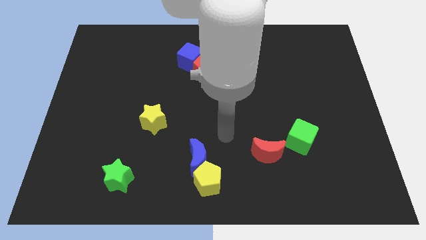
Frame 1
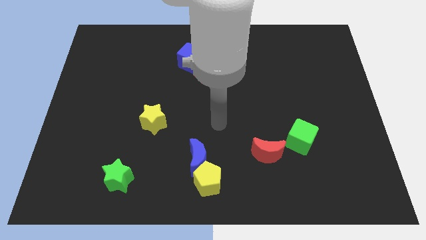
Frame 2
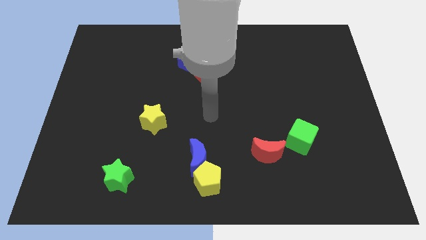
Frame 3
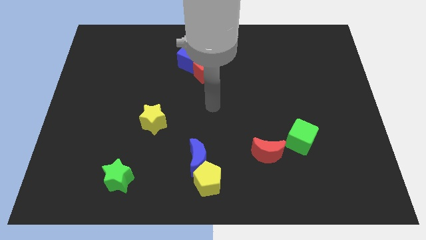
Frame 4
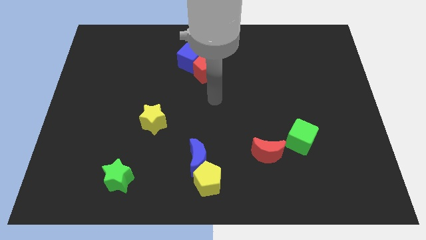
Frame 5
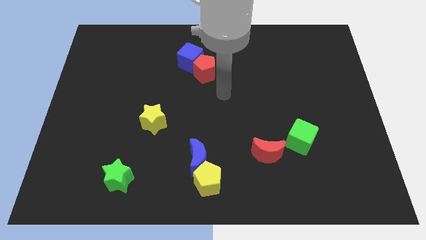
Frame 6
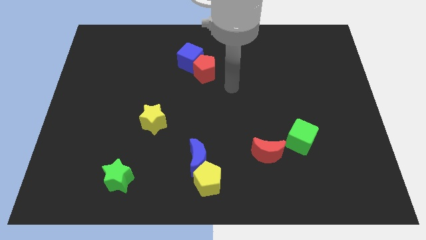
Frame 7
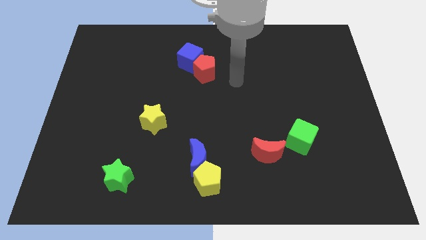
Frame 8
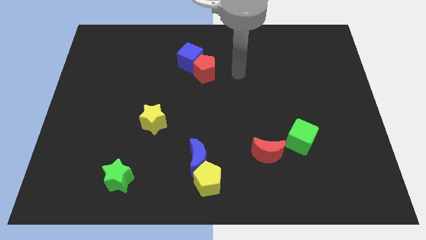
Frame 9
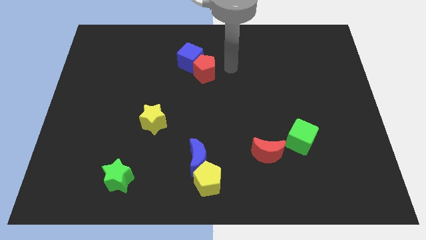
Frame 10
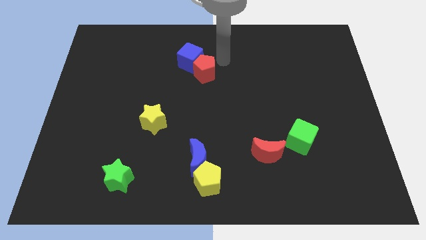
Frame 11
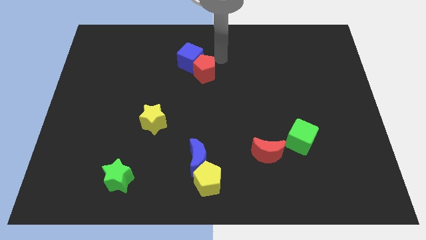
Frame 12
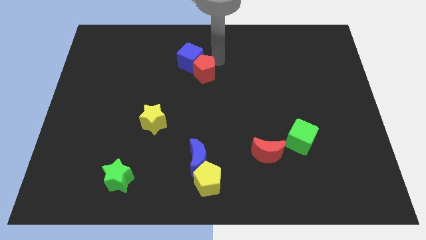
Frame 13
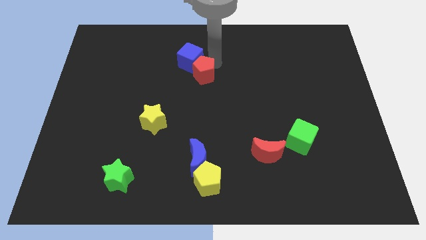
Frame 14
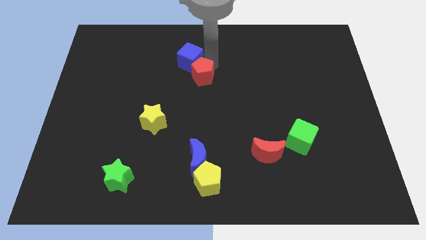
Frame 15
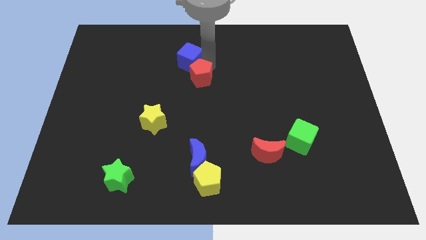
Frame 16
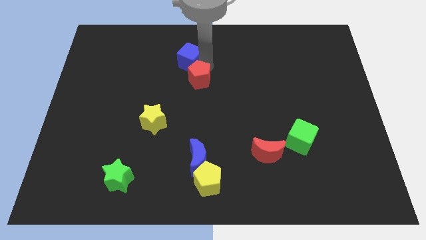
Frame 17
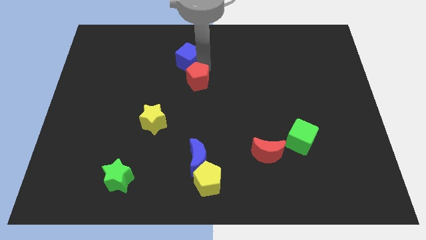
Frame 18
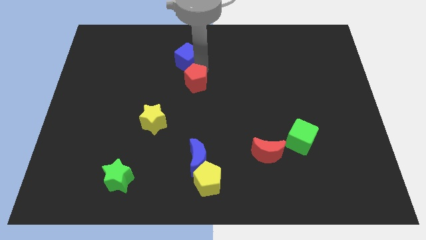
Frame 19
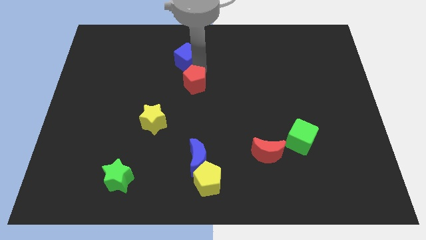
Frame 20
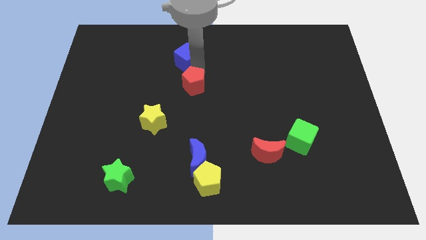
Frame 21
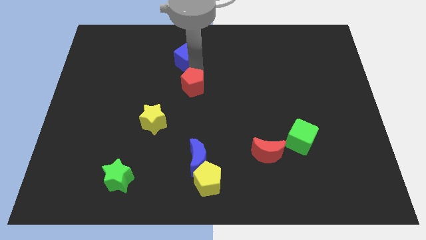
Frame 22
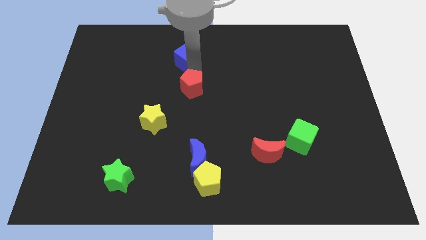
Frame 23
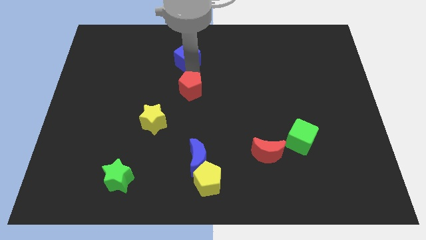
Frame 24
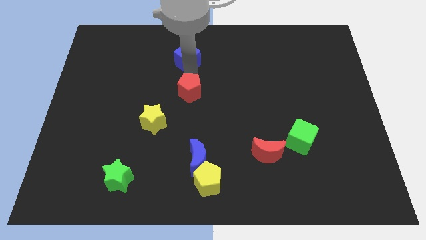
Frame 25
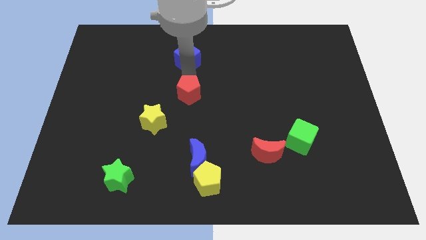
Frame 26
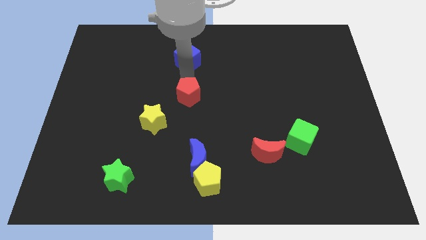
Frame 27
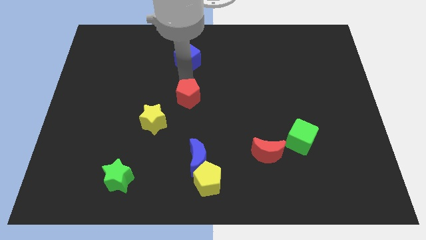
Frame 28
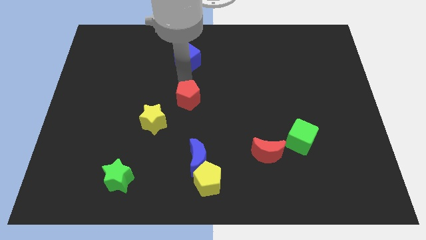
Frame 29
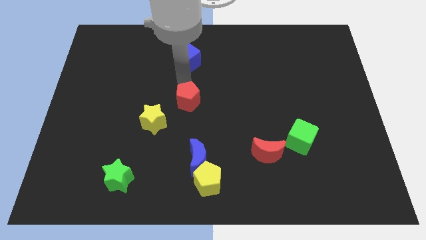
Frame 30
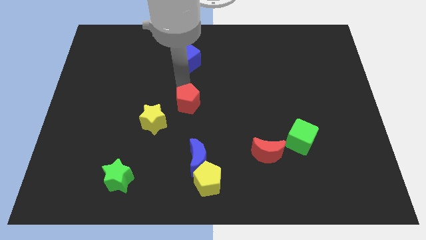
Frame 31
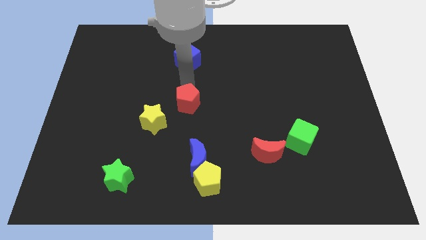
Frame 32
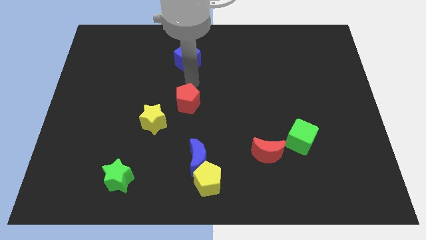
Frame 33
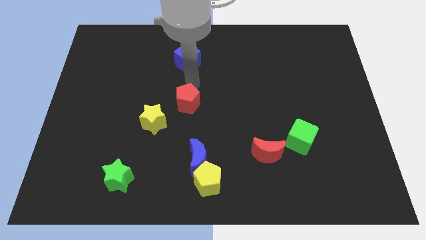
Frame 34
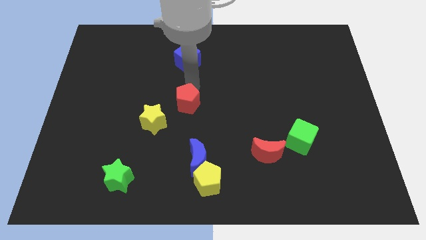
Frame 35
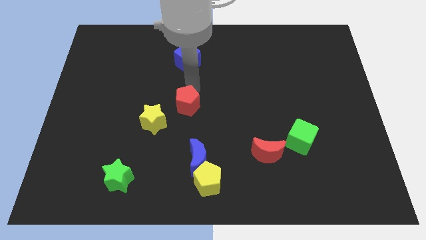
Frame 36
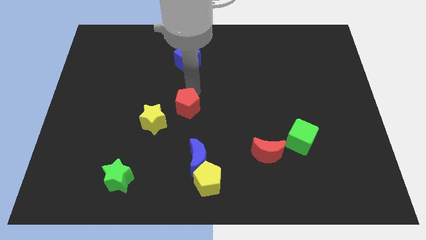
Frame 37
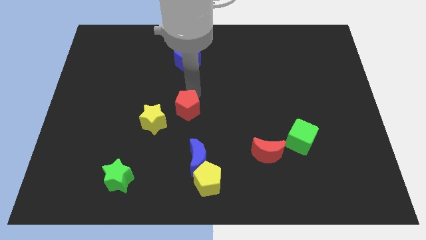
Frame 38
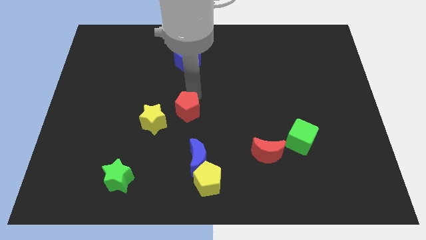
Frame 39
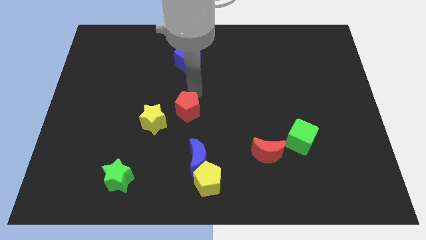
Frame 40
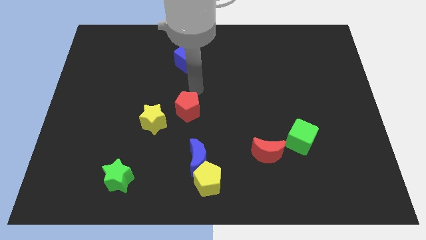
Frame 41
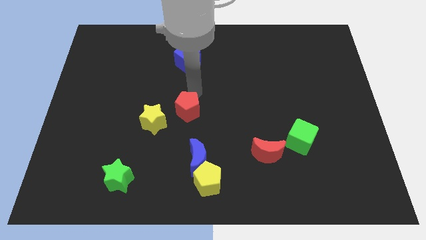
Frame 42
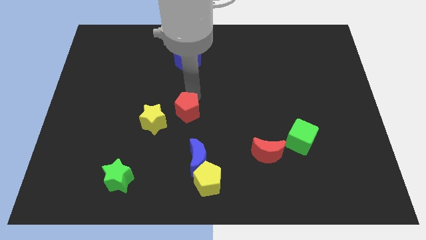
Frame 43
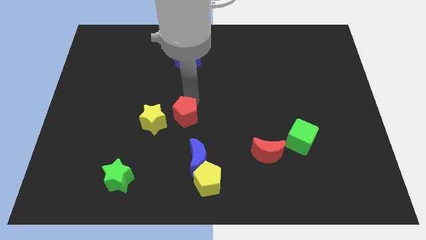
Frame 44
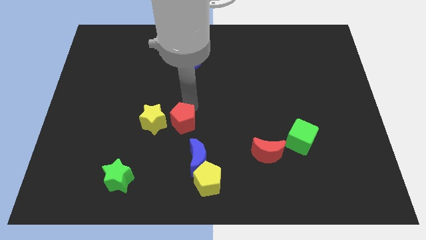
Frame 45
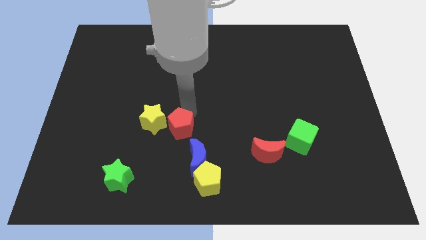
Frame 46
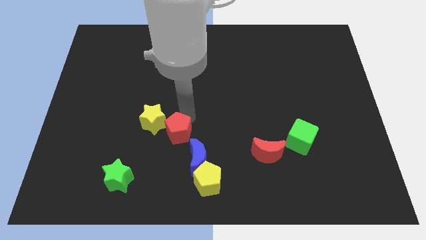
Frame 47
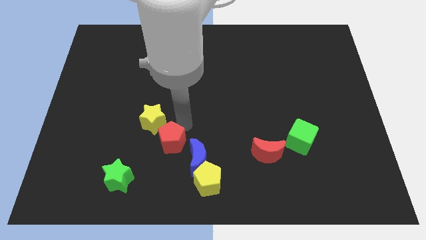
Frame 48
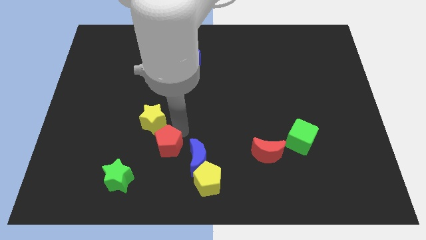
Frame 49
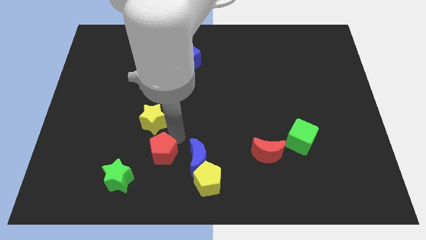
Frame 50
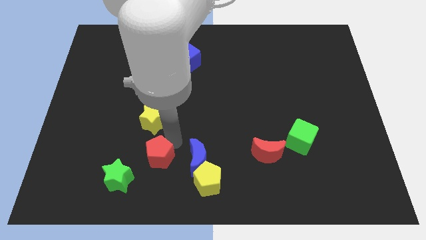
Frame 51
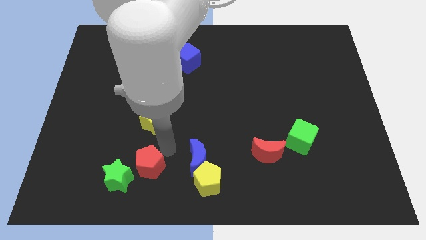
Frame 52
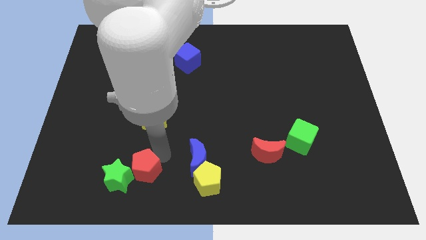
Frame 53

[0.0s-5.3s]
push the red pentagon towards the green star

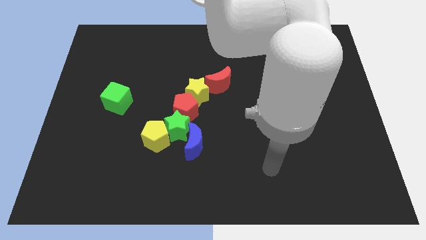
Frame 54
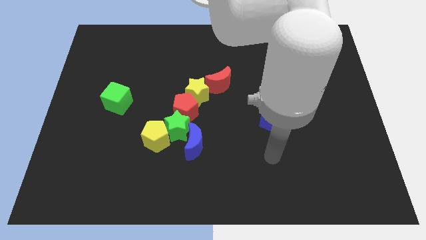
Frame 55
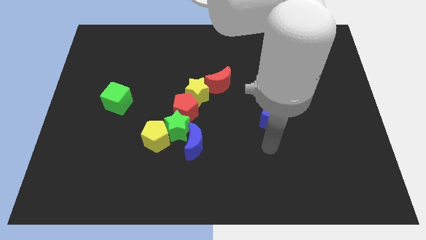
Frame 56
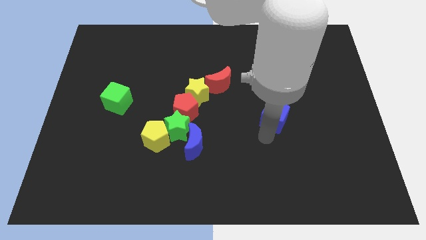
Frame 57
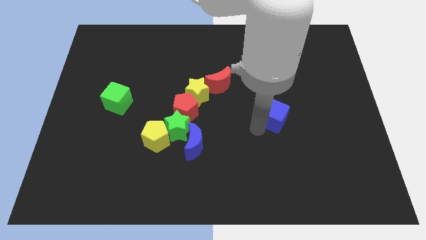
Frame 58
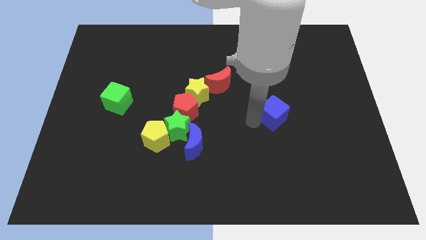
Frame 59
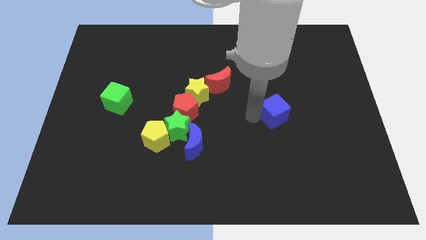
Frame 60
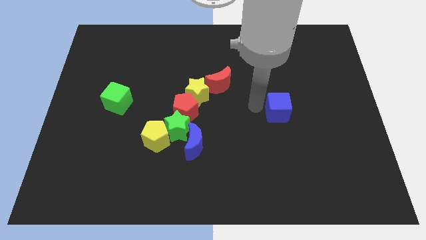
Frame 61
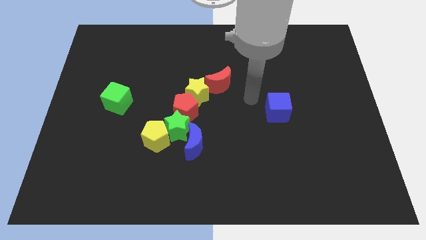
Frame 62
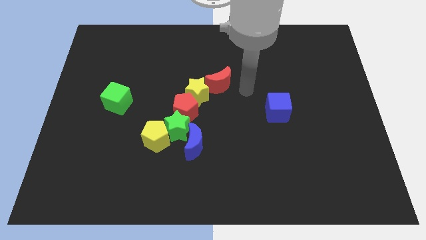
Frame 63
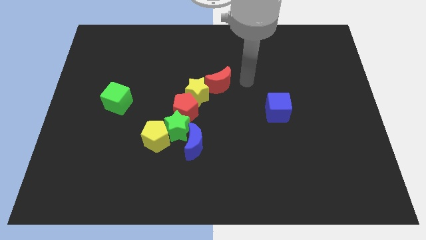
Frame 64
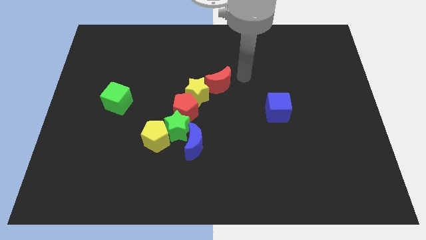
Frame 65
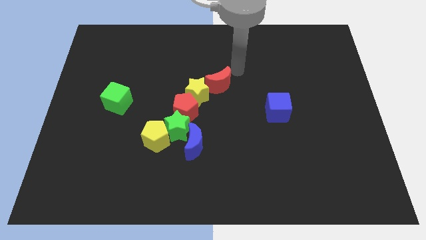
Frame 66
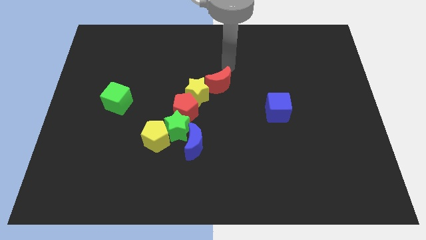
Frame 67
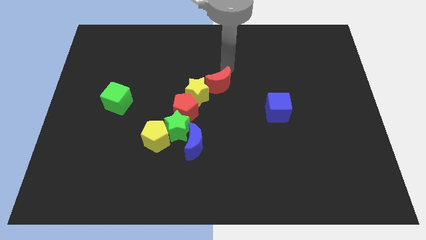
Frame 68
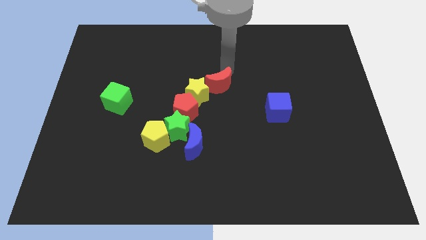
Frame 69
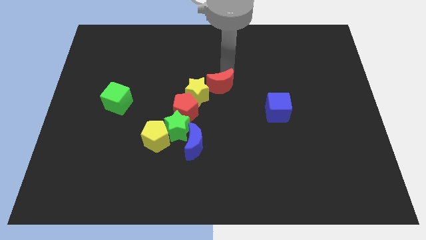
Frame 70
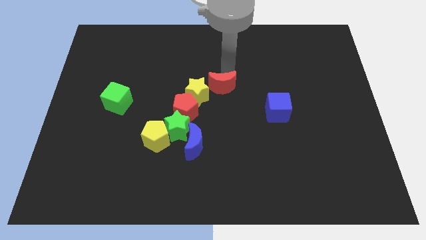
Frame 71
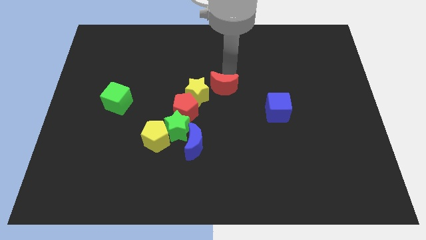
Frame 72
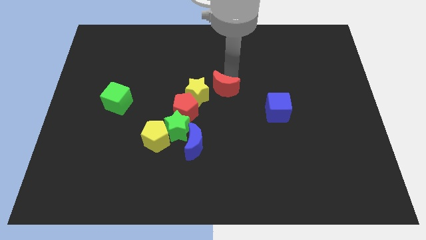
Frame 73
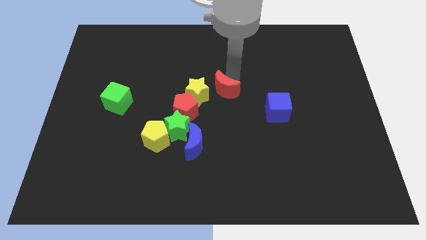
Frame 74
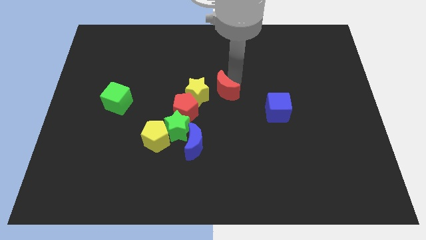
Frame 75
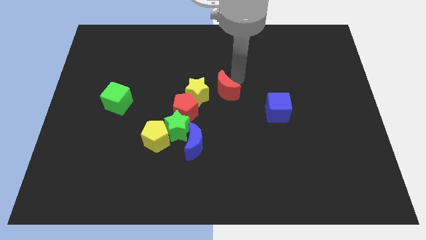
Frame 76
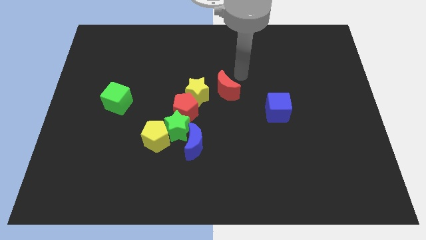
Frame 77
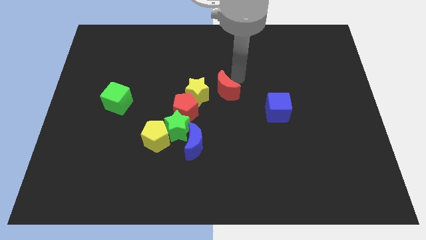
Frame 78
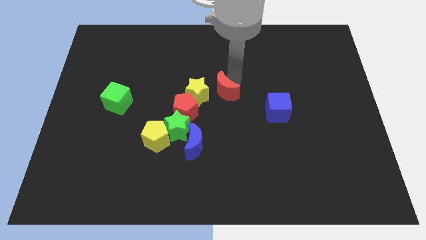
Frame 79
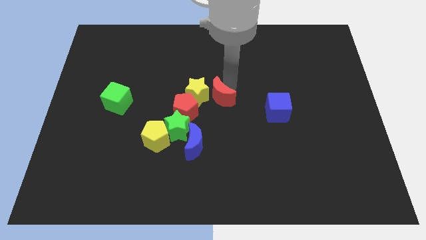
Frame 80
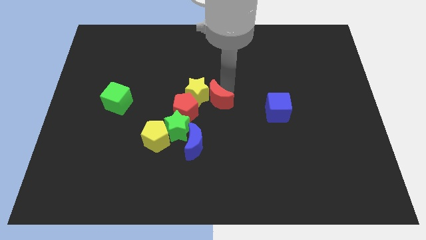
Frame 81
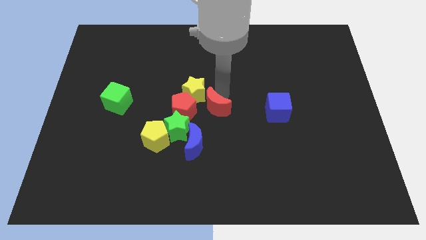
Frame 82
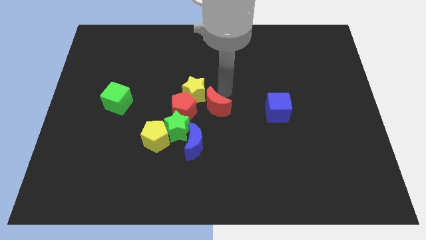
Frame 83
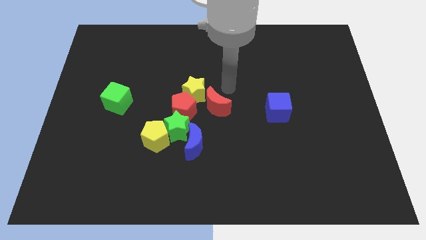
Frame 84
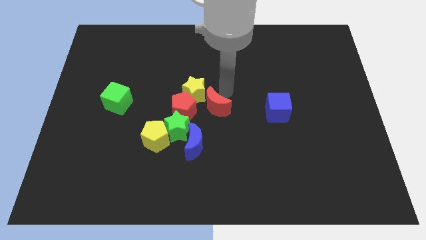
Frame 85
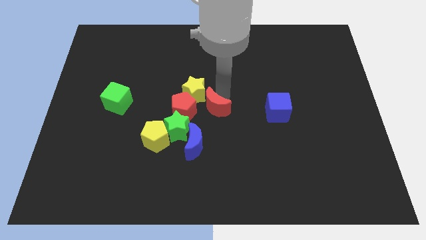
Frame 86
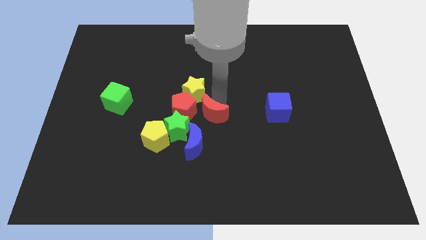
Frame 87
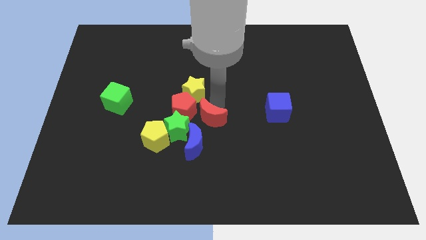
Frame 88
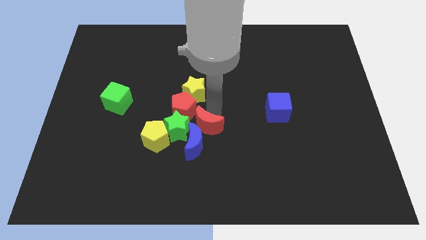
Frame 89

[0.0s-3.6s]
move the red moon towards the blue moon
